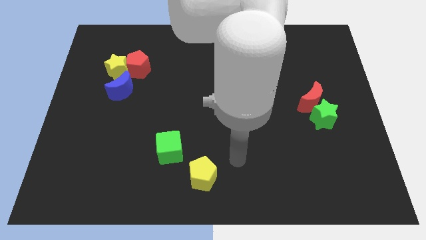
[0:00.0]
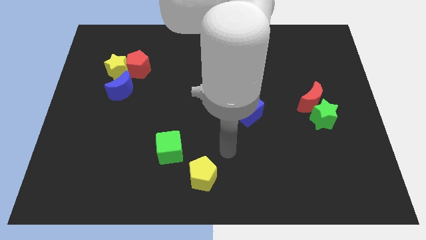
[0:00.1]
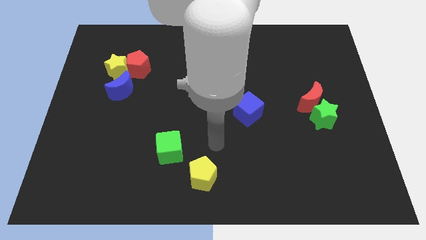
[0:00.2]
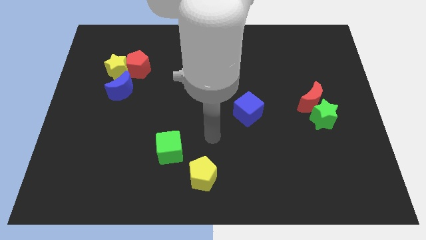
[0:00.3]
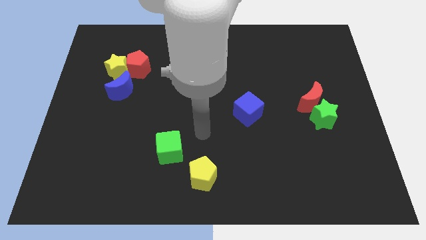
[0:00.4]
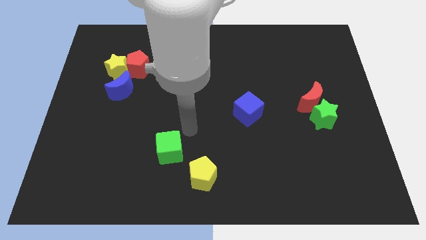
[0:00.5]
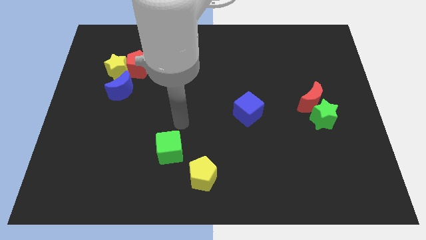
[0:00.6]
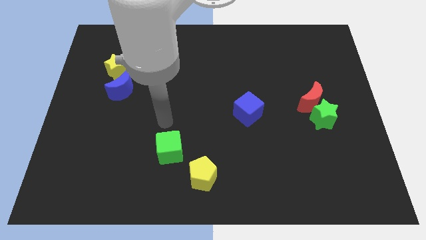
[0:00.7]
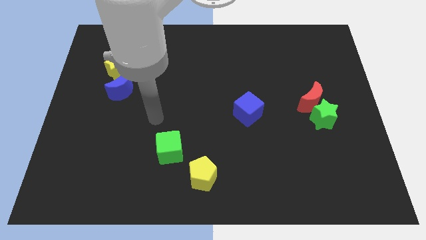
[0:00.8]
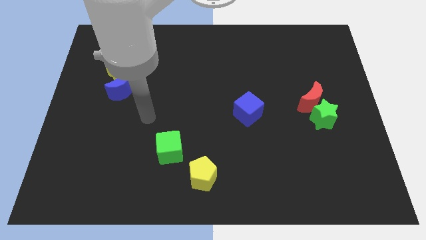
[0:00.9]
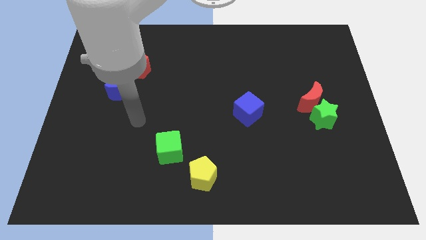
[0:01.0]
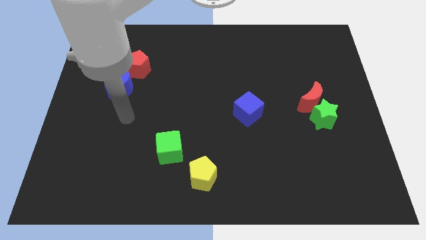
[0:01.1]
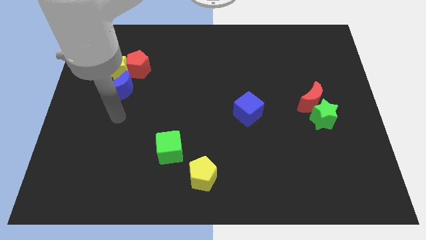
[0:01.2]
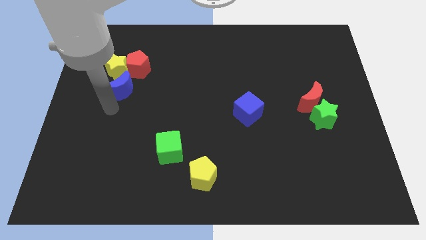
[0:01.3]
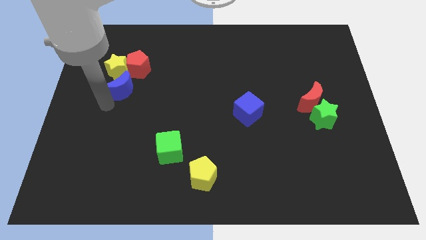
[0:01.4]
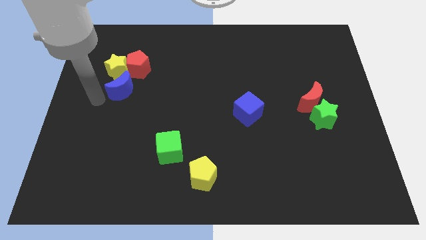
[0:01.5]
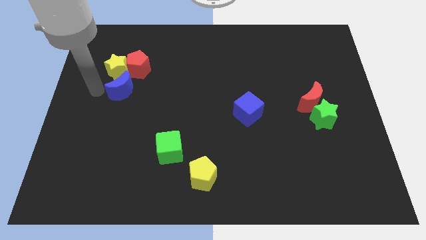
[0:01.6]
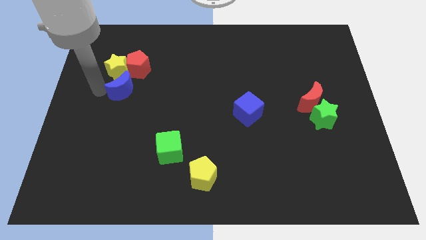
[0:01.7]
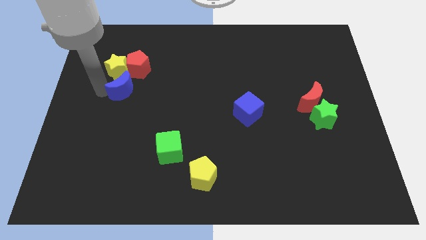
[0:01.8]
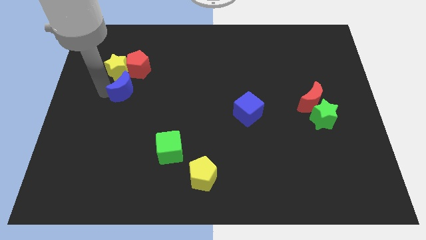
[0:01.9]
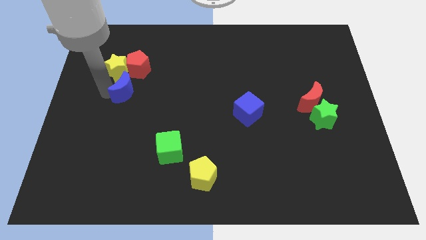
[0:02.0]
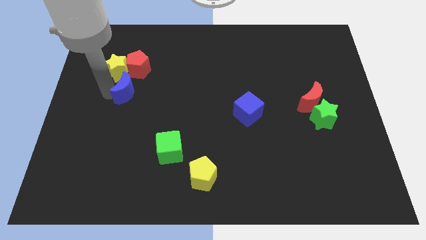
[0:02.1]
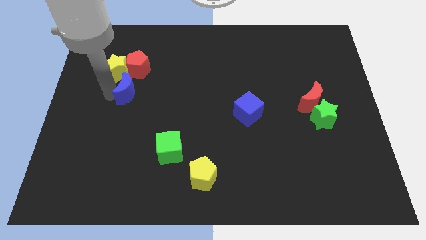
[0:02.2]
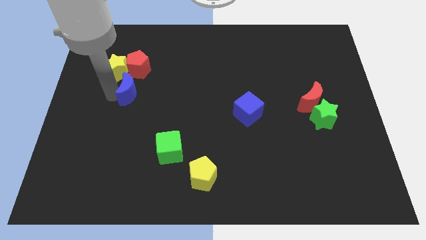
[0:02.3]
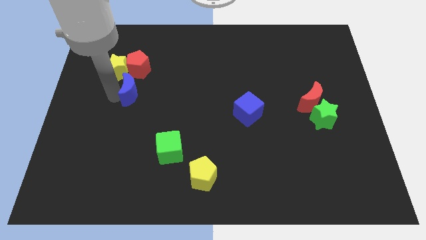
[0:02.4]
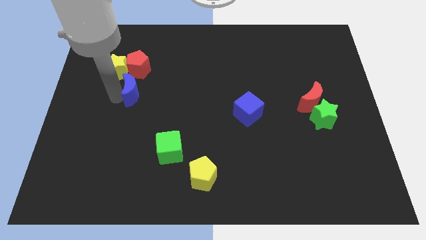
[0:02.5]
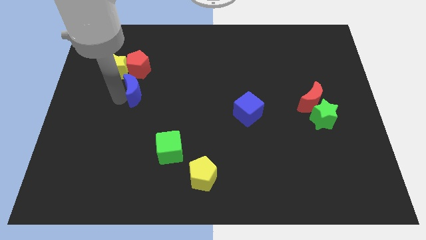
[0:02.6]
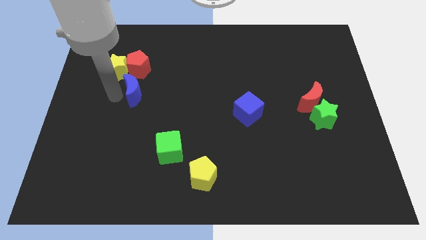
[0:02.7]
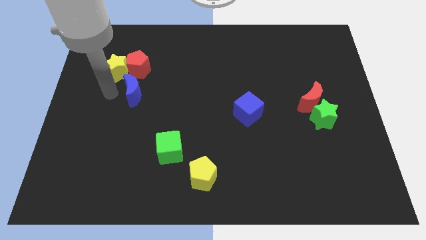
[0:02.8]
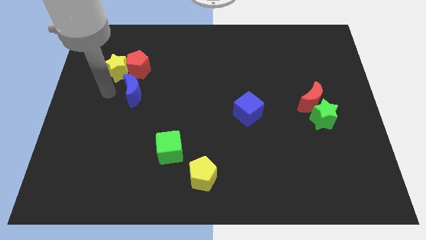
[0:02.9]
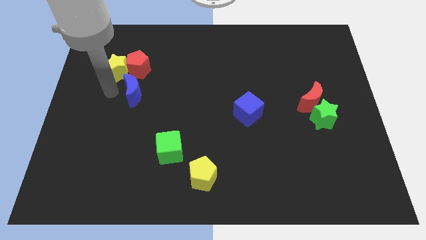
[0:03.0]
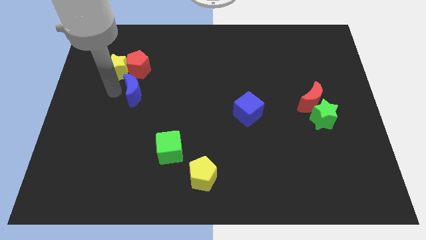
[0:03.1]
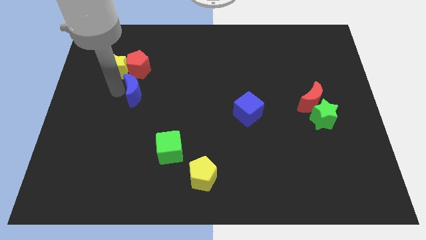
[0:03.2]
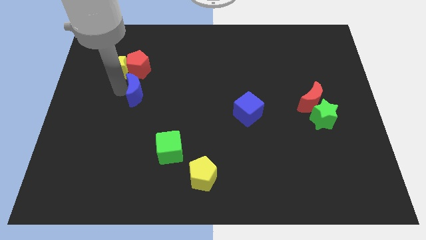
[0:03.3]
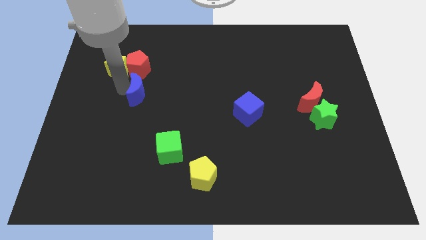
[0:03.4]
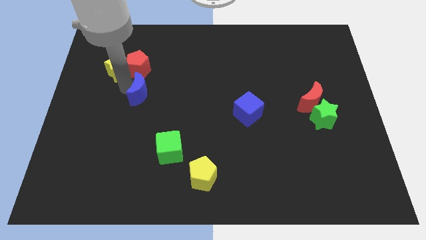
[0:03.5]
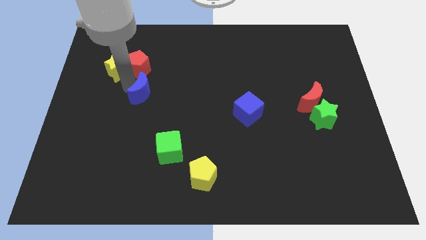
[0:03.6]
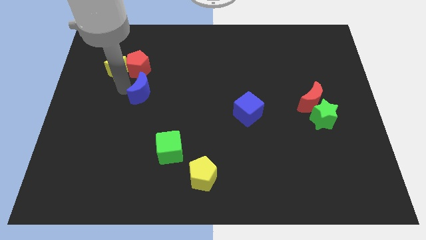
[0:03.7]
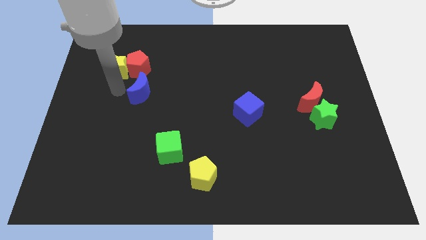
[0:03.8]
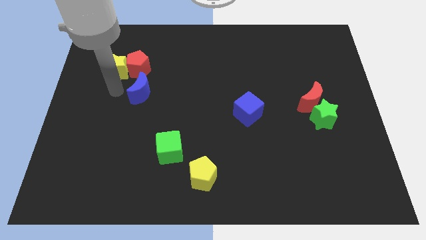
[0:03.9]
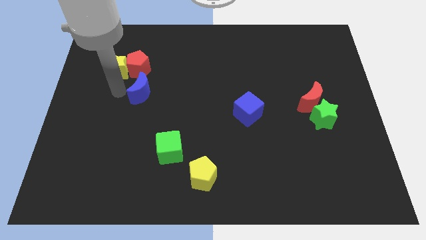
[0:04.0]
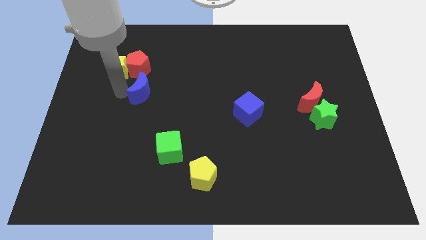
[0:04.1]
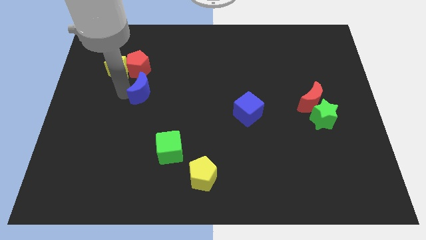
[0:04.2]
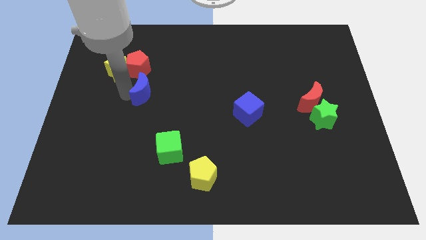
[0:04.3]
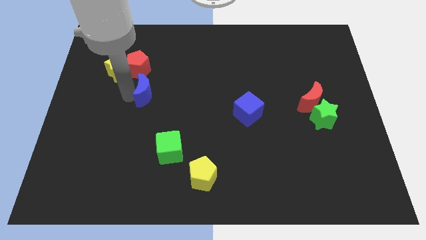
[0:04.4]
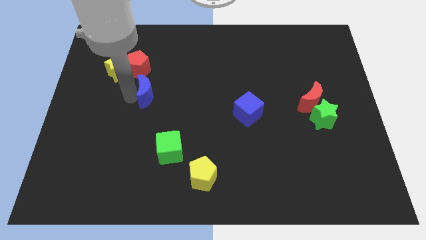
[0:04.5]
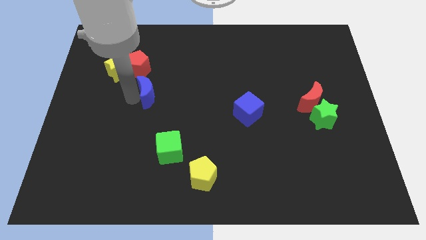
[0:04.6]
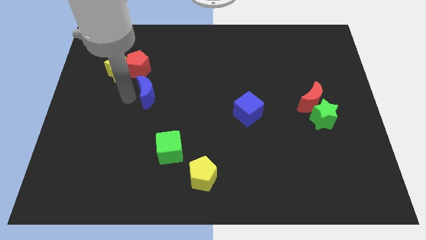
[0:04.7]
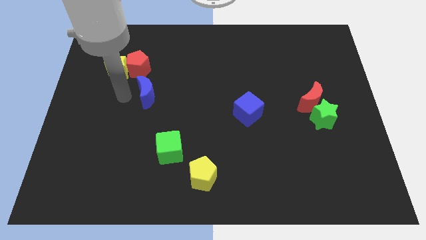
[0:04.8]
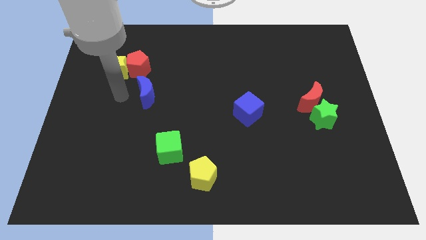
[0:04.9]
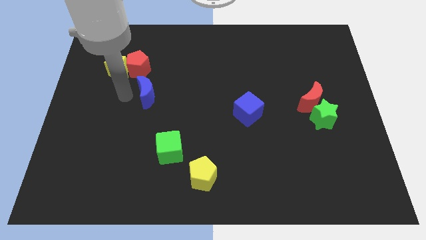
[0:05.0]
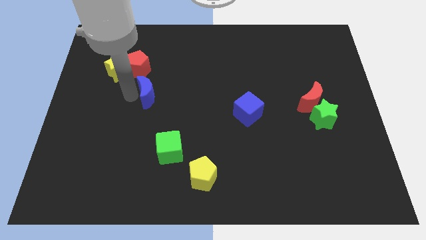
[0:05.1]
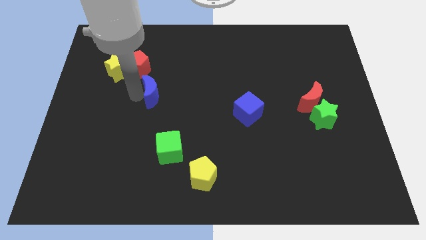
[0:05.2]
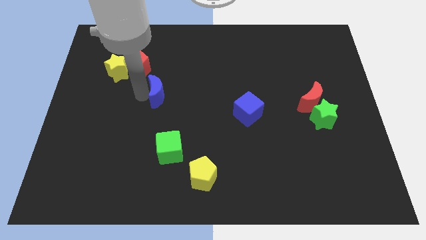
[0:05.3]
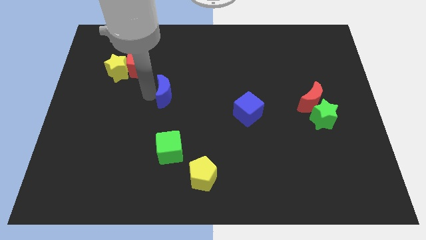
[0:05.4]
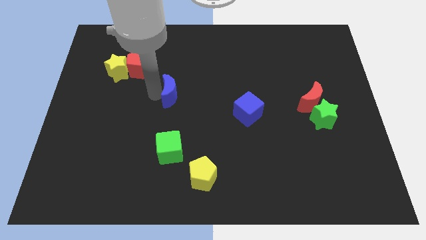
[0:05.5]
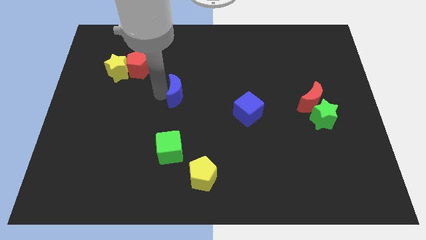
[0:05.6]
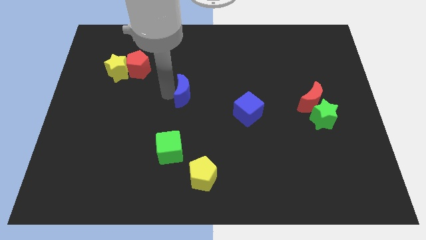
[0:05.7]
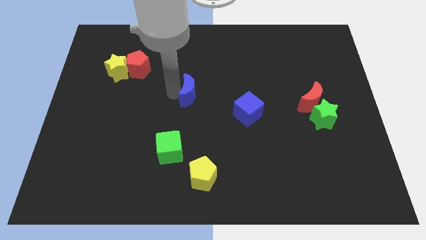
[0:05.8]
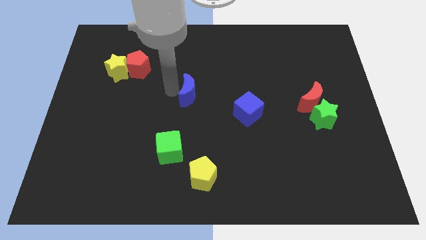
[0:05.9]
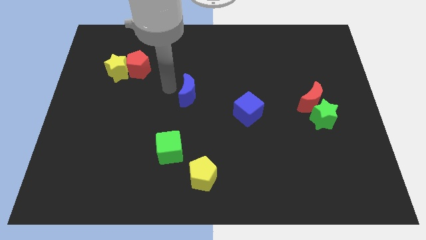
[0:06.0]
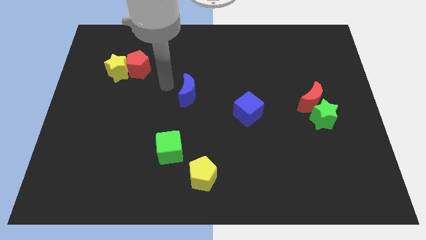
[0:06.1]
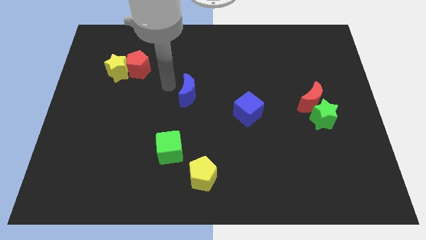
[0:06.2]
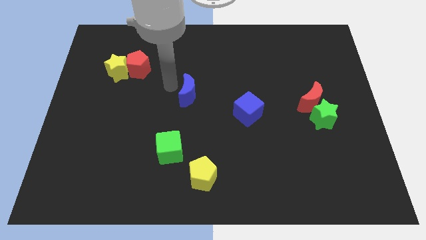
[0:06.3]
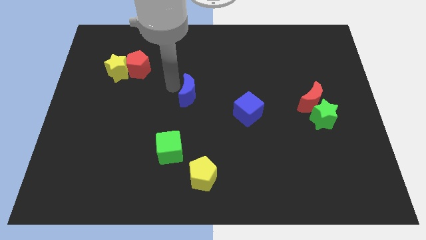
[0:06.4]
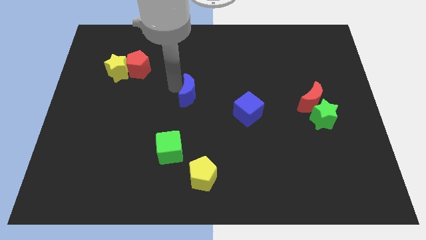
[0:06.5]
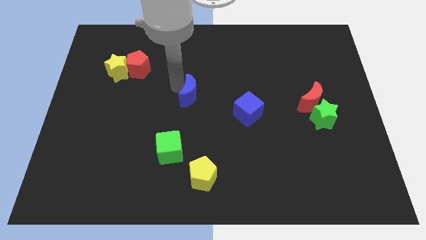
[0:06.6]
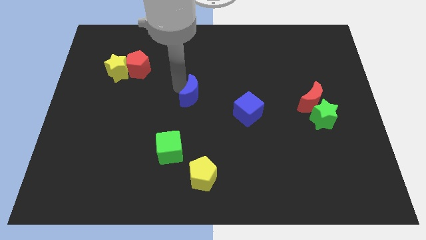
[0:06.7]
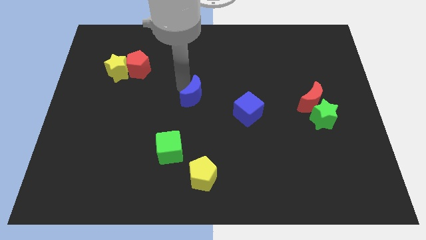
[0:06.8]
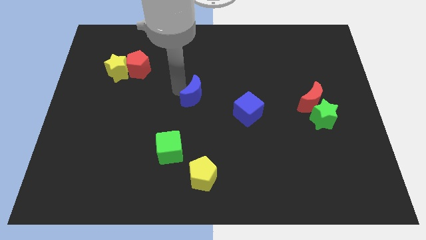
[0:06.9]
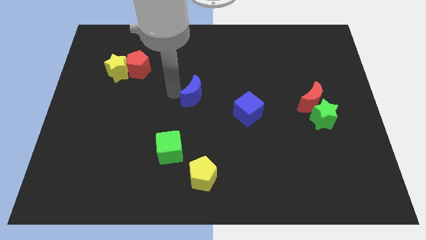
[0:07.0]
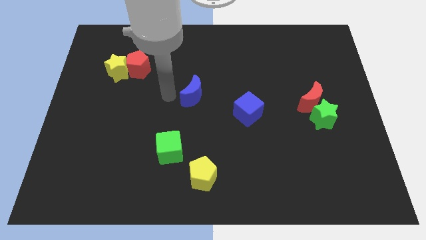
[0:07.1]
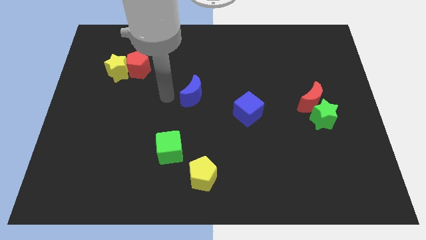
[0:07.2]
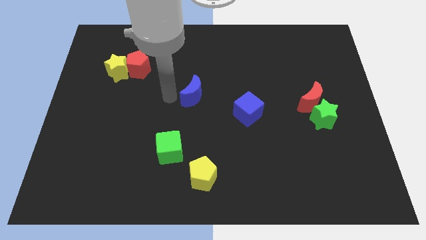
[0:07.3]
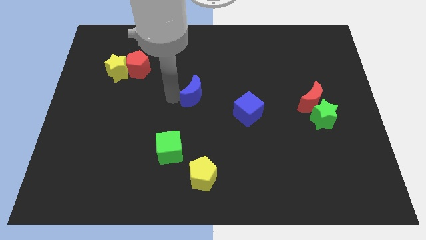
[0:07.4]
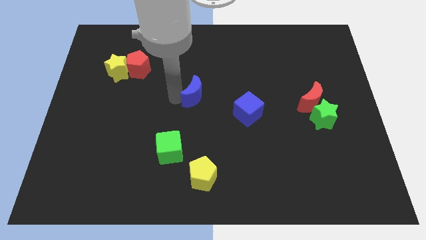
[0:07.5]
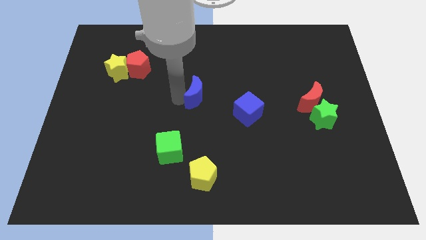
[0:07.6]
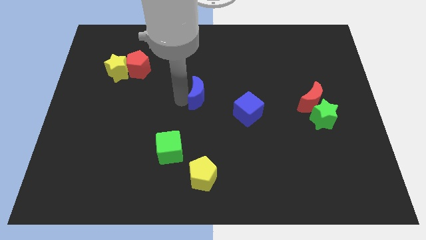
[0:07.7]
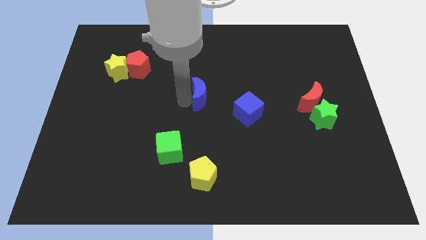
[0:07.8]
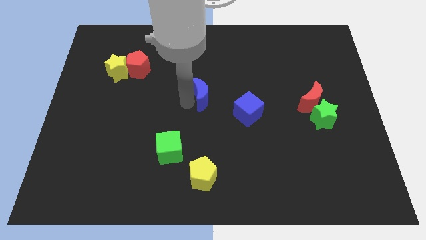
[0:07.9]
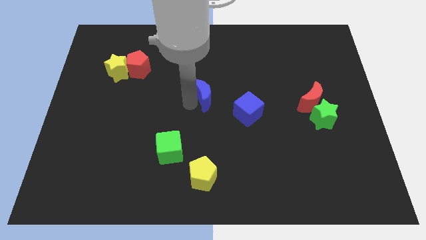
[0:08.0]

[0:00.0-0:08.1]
push the blue moon diagonally up and to the left of the blue cube
